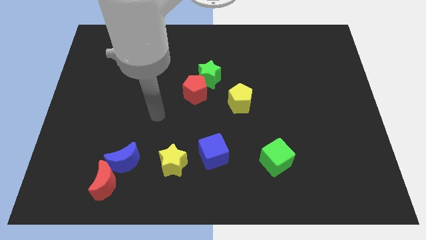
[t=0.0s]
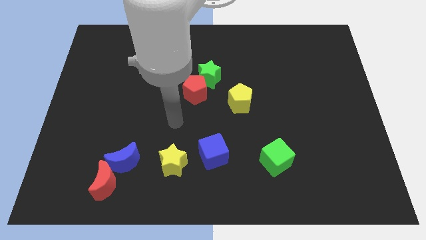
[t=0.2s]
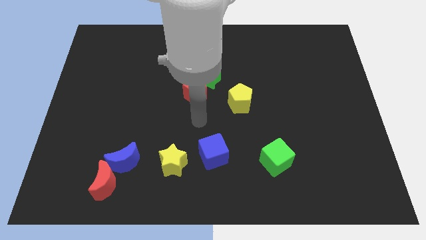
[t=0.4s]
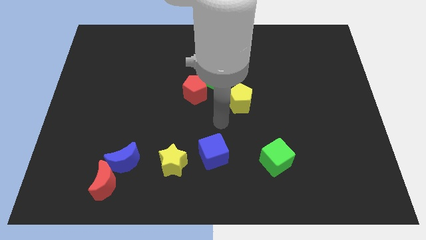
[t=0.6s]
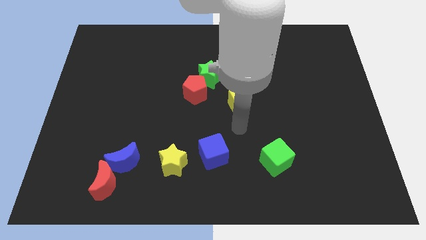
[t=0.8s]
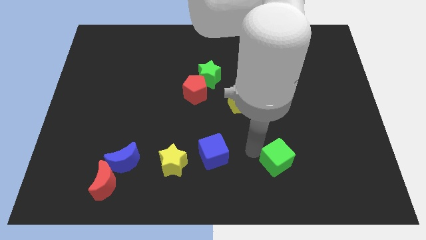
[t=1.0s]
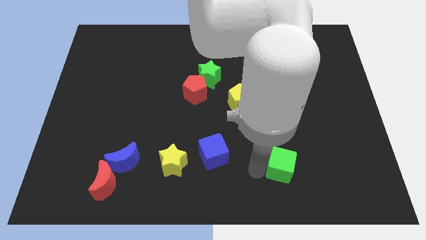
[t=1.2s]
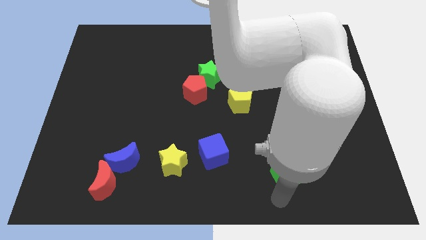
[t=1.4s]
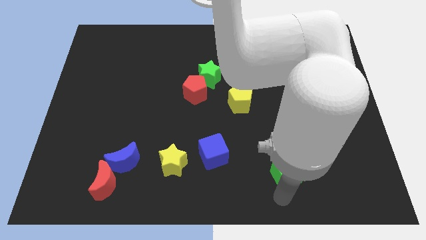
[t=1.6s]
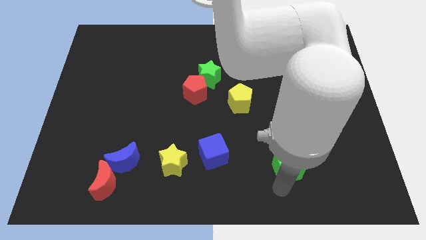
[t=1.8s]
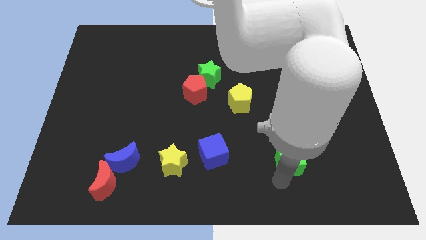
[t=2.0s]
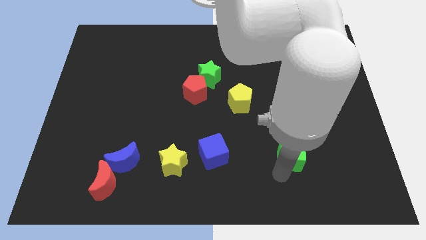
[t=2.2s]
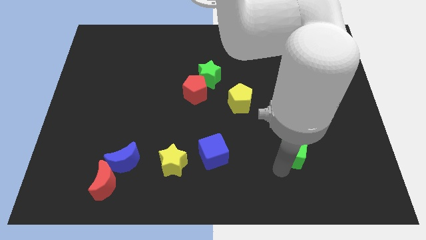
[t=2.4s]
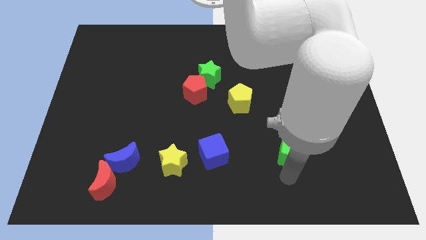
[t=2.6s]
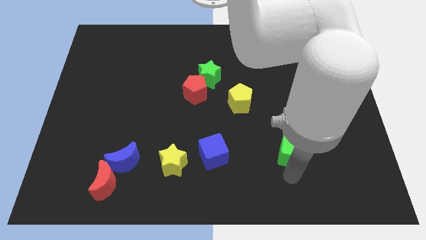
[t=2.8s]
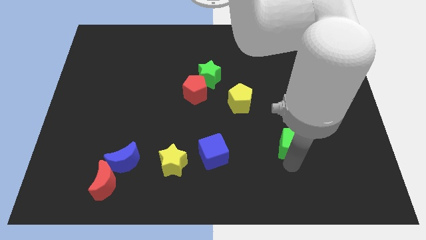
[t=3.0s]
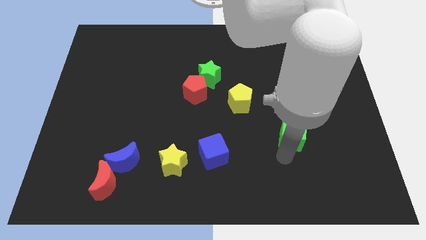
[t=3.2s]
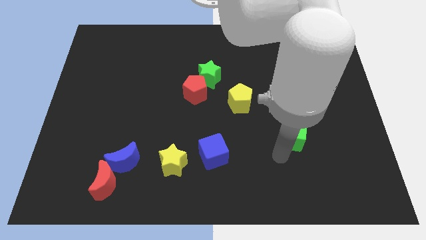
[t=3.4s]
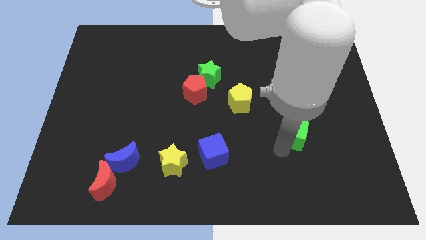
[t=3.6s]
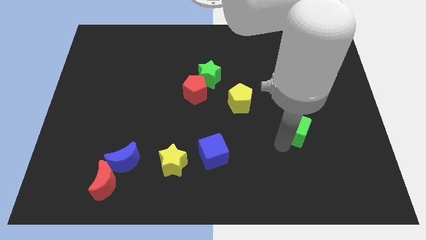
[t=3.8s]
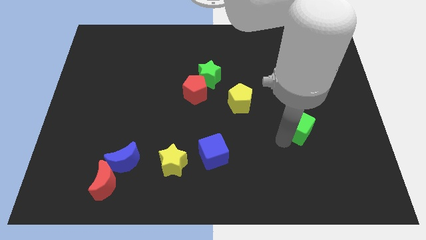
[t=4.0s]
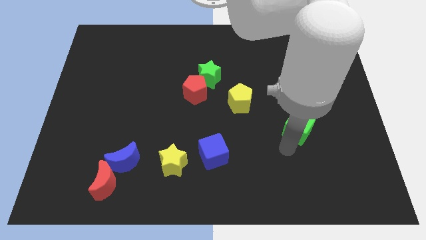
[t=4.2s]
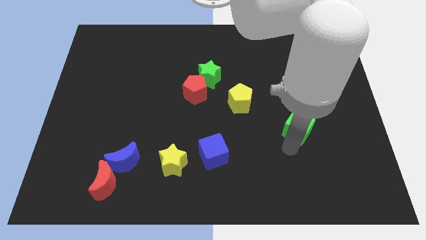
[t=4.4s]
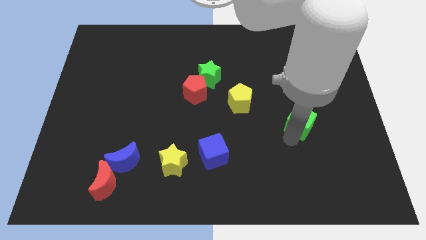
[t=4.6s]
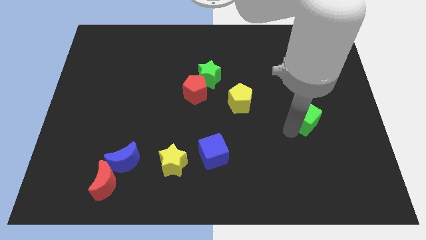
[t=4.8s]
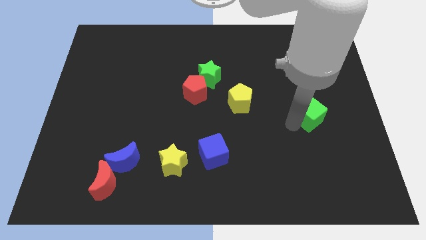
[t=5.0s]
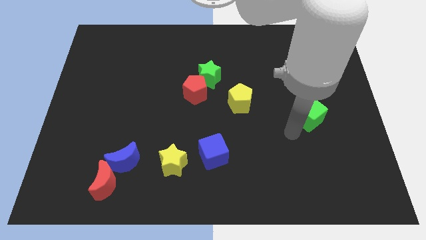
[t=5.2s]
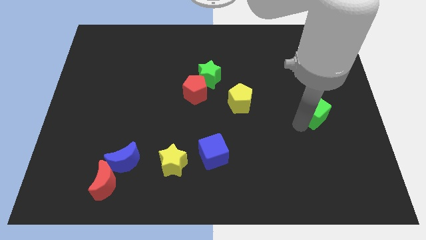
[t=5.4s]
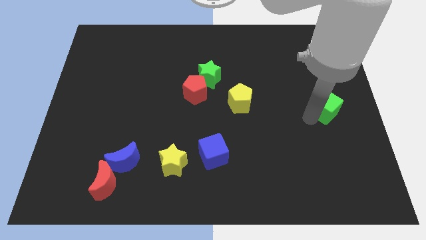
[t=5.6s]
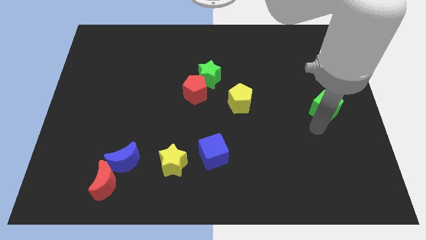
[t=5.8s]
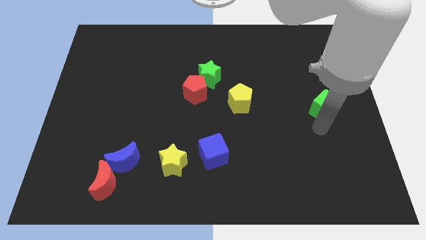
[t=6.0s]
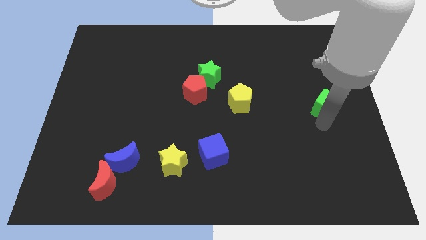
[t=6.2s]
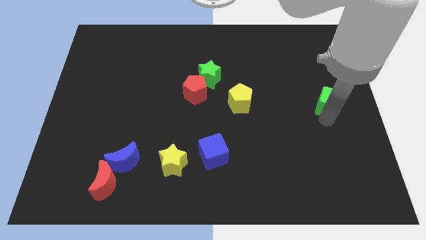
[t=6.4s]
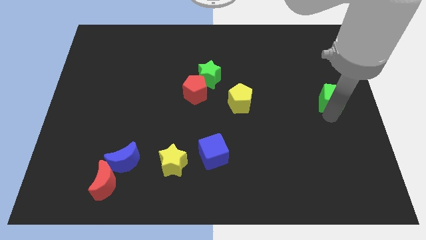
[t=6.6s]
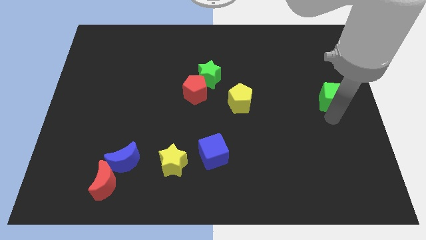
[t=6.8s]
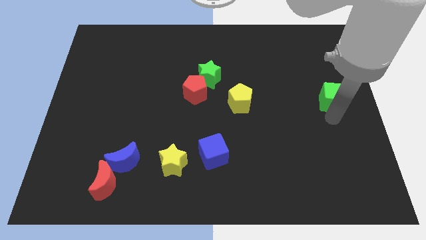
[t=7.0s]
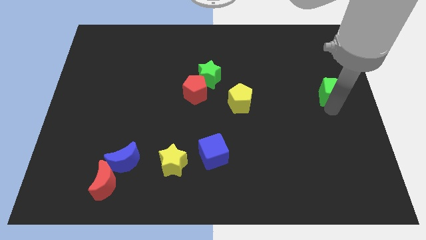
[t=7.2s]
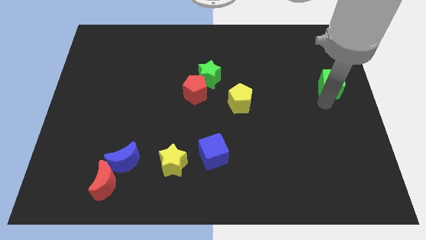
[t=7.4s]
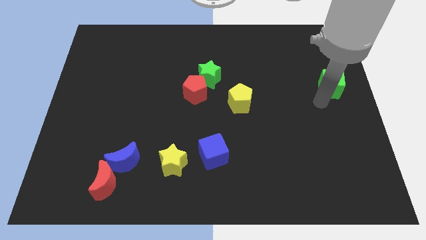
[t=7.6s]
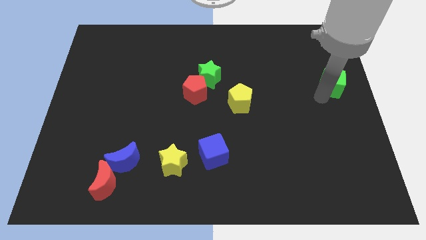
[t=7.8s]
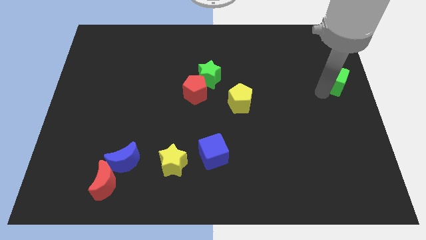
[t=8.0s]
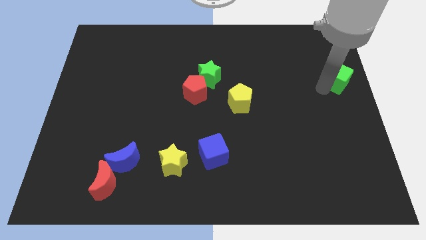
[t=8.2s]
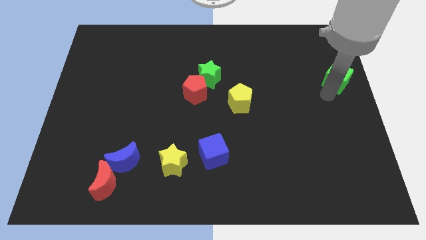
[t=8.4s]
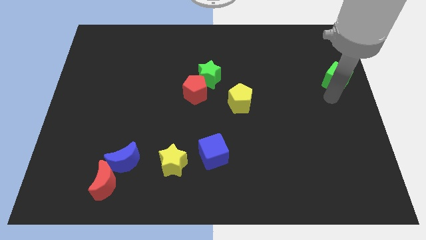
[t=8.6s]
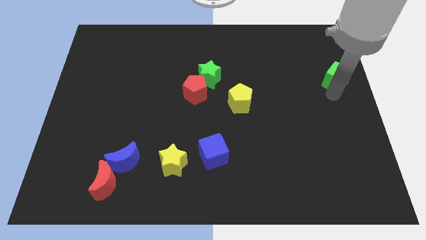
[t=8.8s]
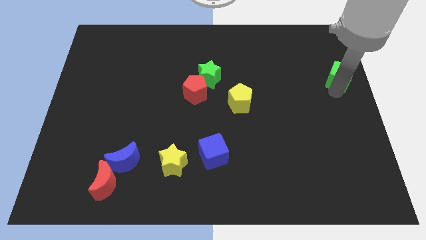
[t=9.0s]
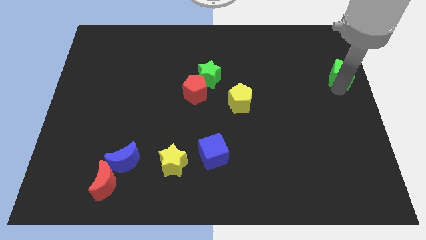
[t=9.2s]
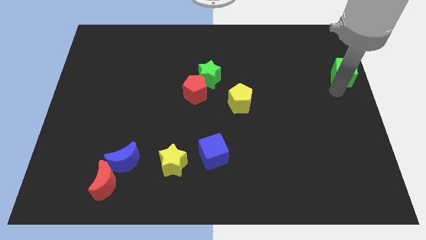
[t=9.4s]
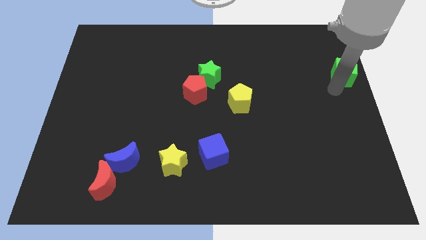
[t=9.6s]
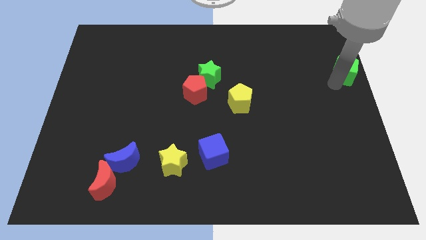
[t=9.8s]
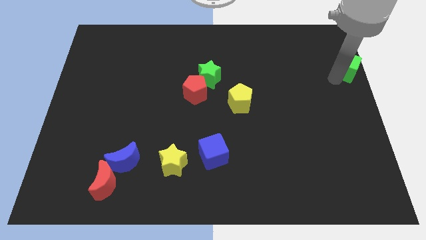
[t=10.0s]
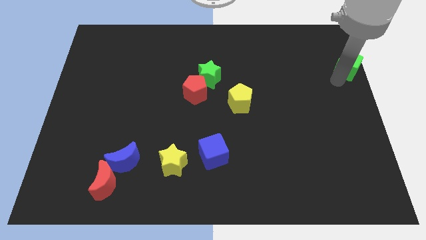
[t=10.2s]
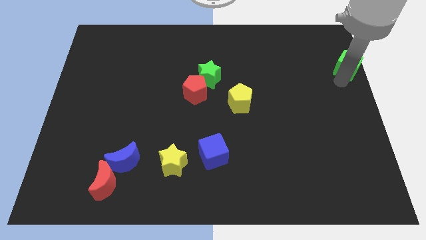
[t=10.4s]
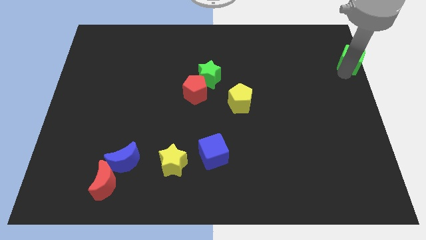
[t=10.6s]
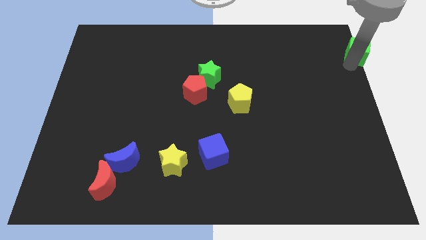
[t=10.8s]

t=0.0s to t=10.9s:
put the green cube to the top right corner

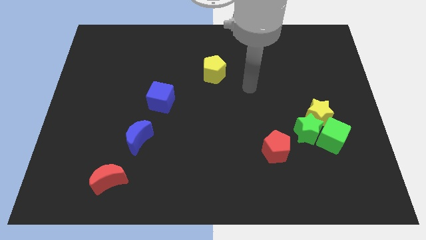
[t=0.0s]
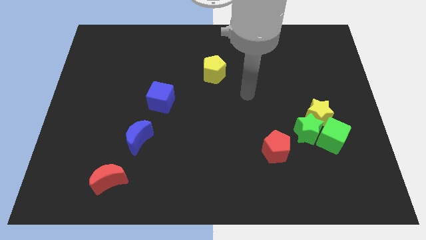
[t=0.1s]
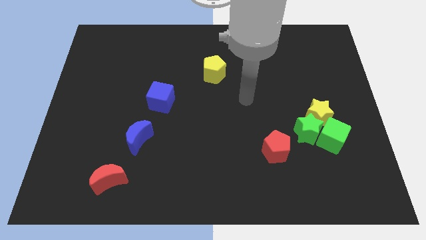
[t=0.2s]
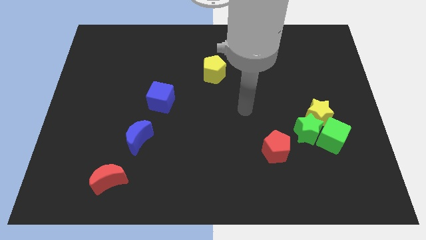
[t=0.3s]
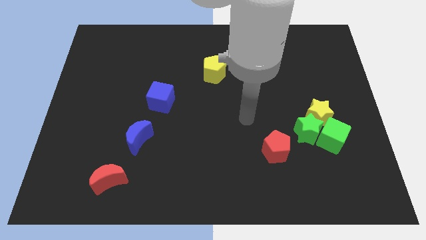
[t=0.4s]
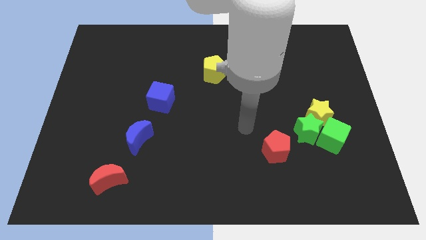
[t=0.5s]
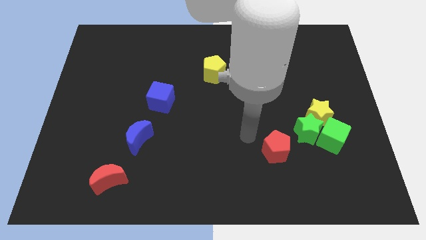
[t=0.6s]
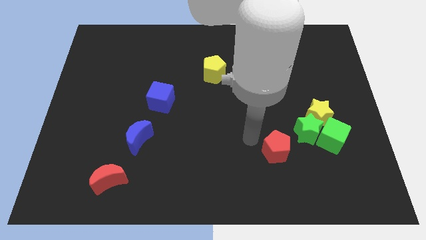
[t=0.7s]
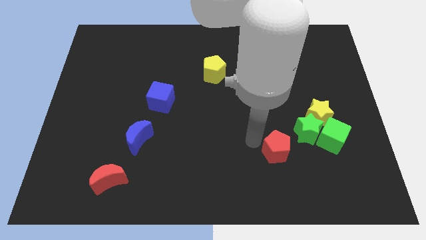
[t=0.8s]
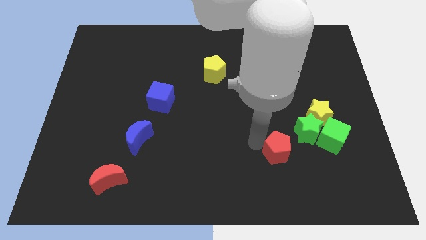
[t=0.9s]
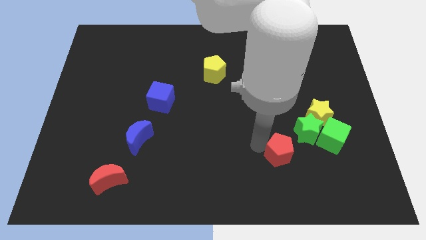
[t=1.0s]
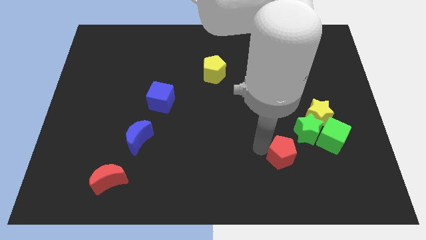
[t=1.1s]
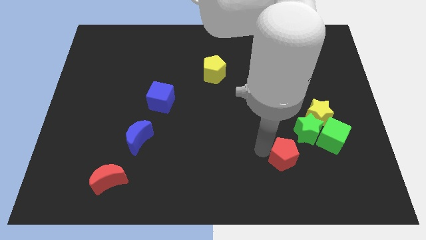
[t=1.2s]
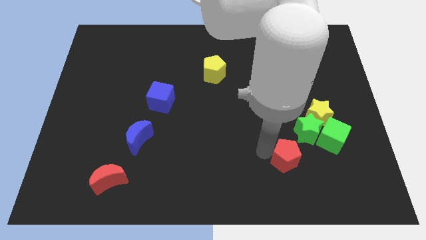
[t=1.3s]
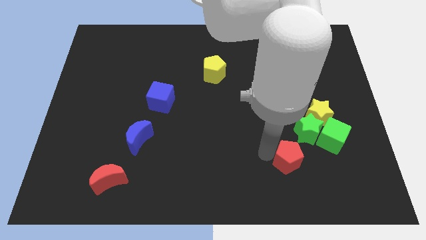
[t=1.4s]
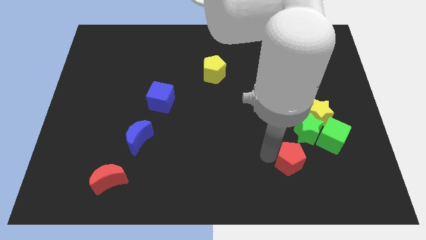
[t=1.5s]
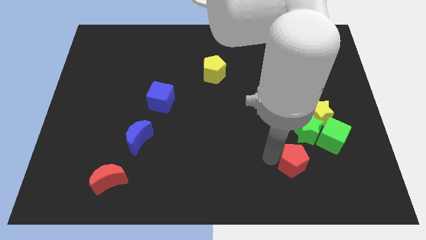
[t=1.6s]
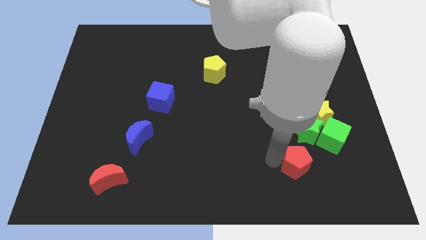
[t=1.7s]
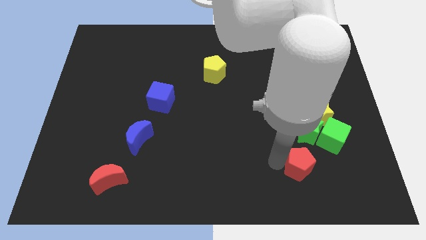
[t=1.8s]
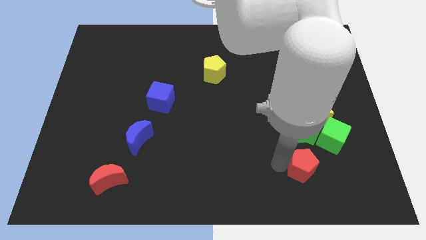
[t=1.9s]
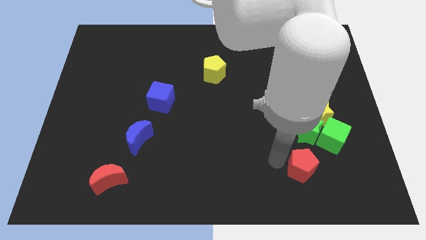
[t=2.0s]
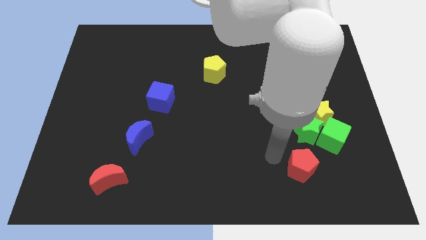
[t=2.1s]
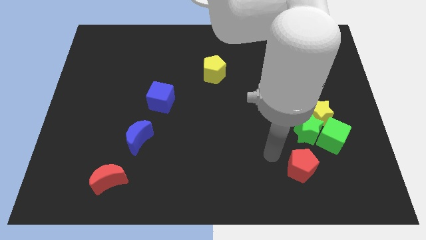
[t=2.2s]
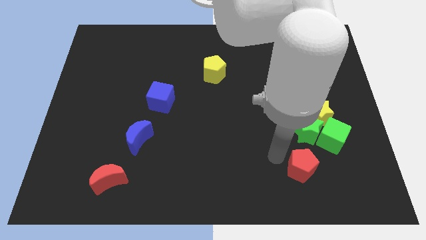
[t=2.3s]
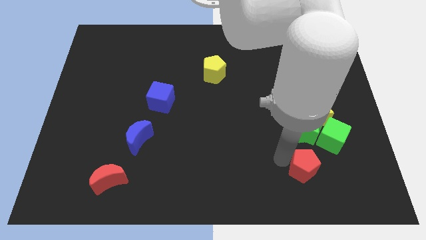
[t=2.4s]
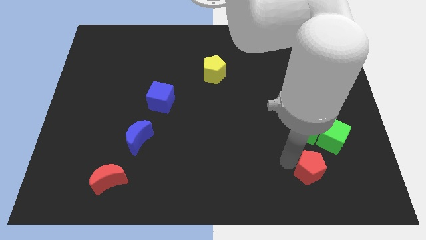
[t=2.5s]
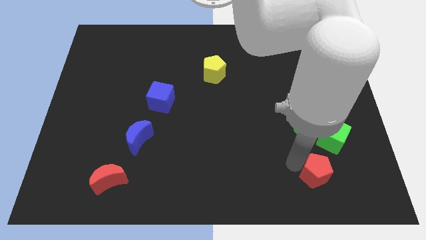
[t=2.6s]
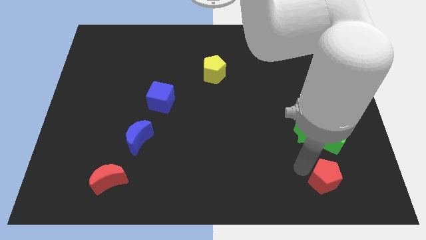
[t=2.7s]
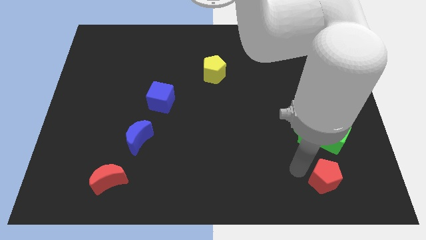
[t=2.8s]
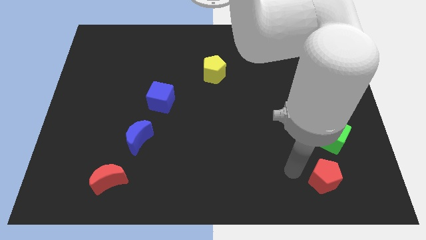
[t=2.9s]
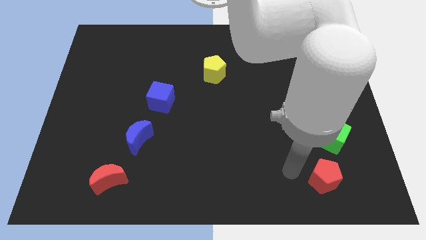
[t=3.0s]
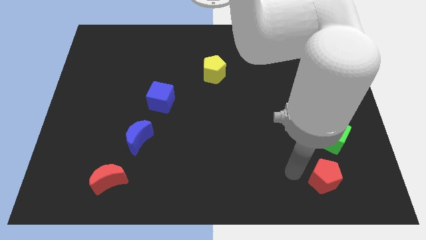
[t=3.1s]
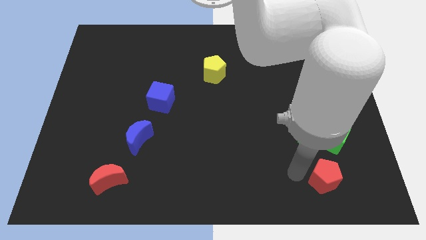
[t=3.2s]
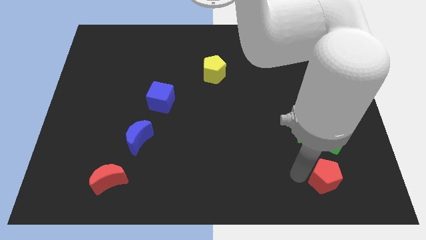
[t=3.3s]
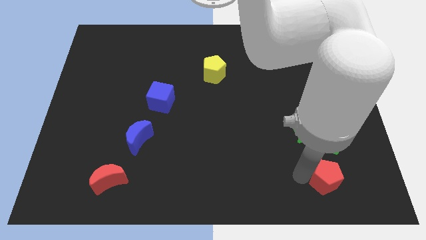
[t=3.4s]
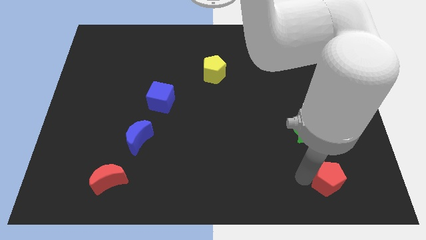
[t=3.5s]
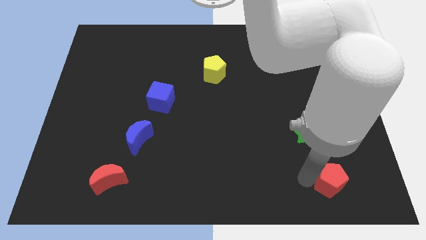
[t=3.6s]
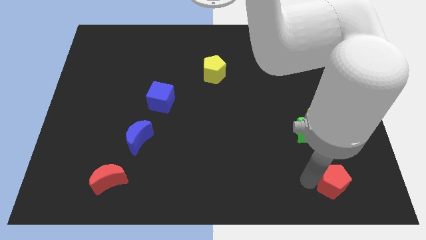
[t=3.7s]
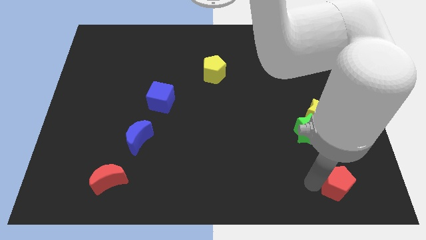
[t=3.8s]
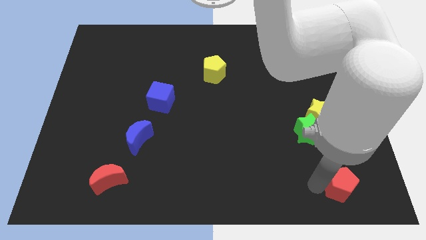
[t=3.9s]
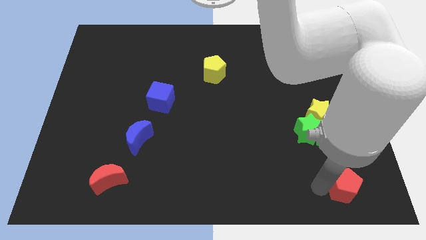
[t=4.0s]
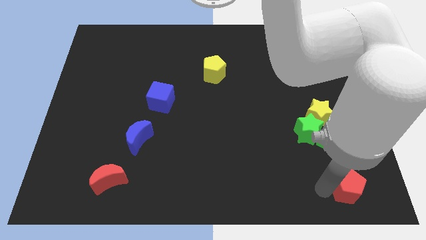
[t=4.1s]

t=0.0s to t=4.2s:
put the red pentagon to the bottom right
